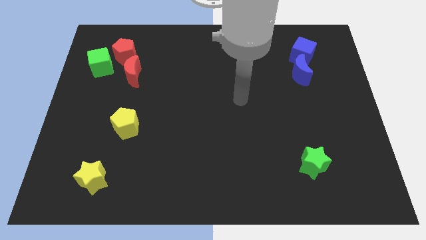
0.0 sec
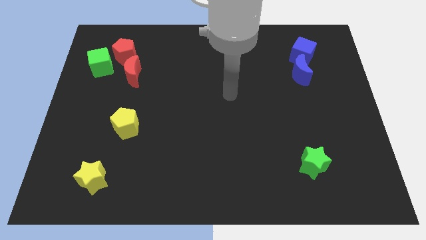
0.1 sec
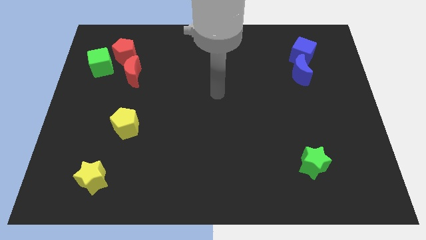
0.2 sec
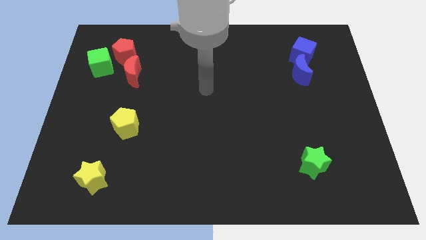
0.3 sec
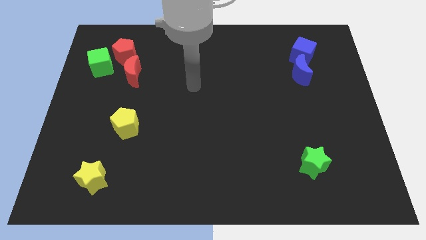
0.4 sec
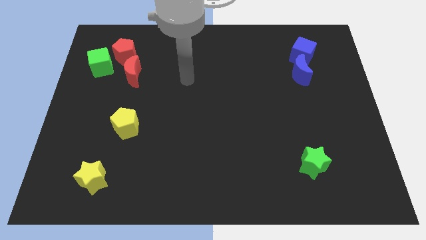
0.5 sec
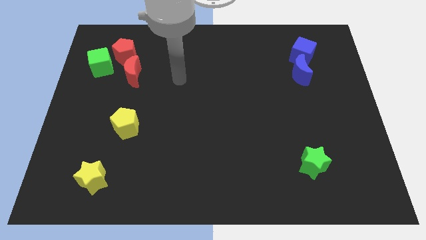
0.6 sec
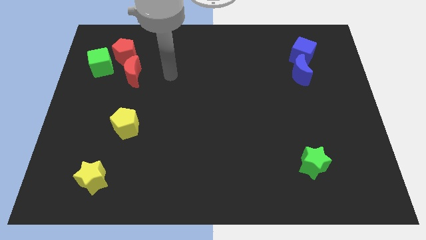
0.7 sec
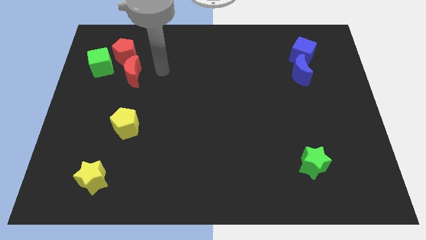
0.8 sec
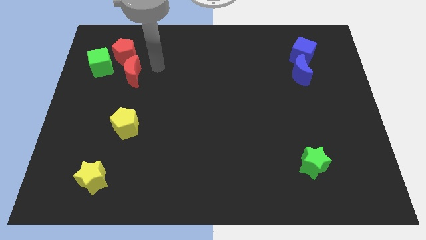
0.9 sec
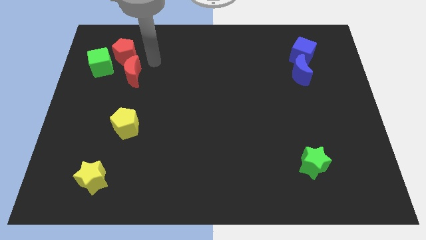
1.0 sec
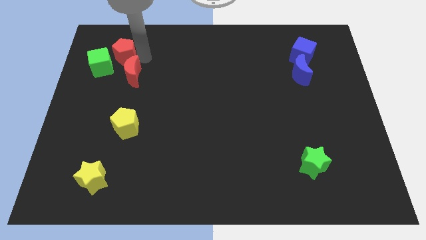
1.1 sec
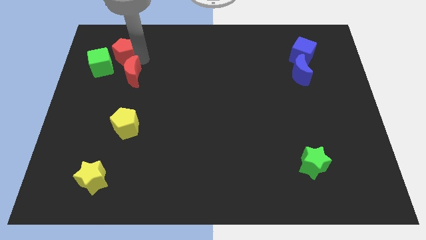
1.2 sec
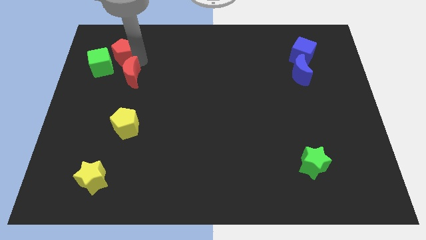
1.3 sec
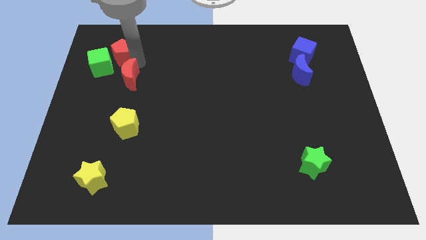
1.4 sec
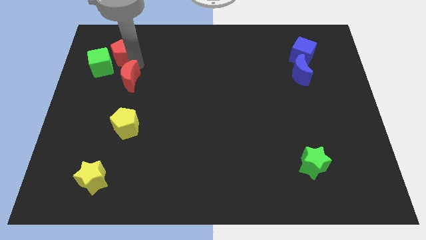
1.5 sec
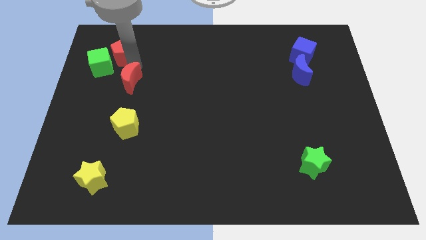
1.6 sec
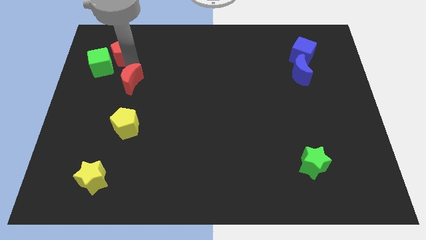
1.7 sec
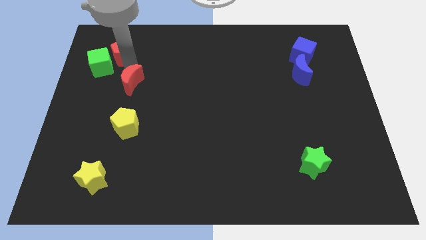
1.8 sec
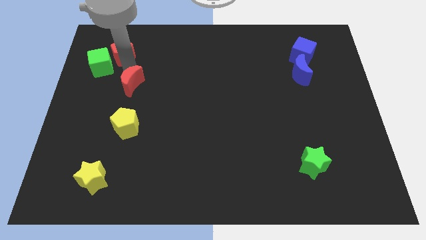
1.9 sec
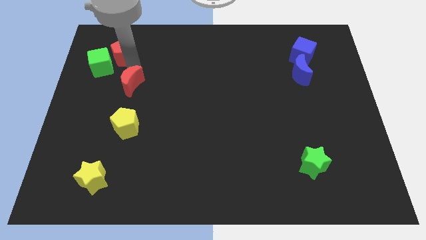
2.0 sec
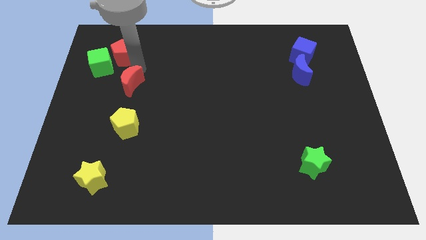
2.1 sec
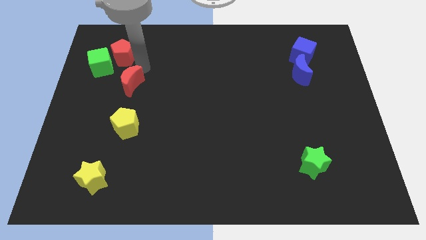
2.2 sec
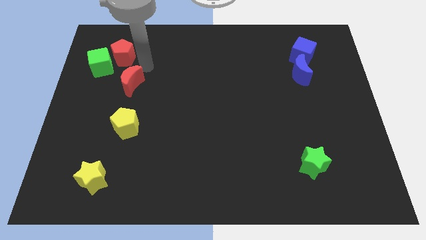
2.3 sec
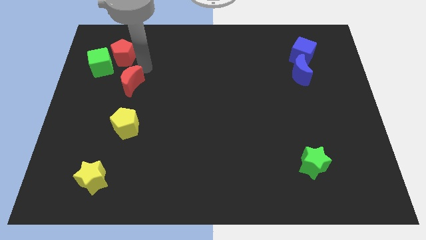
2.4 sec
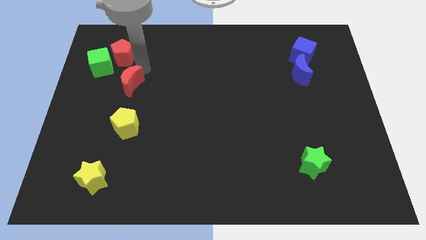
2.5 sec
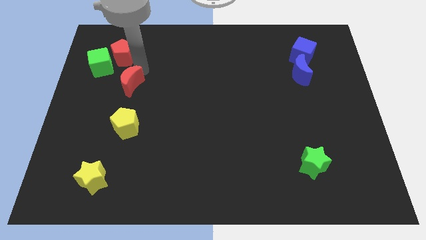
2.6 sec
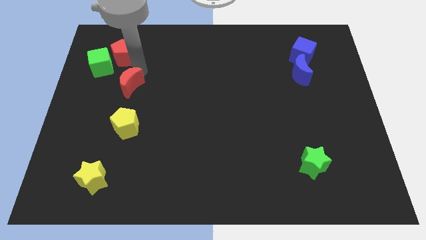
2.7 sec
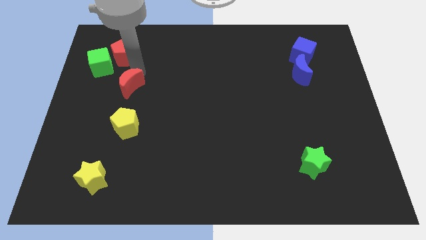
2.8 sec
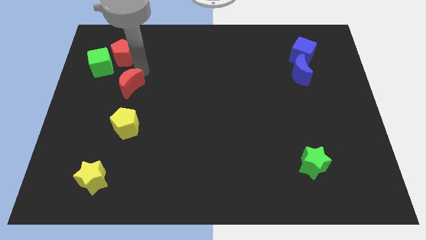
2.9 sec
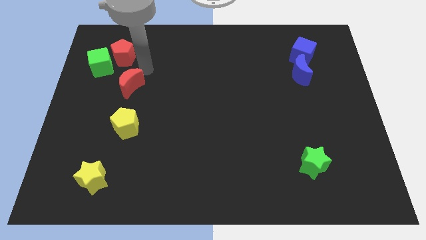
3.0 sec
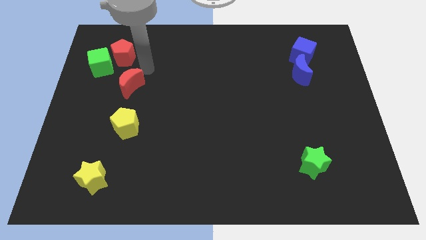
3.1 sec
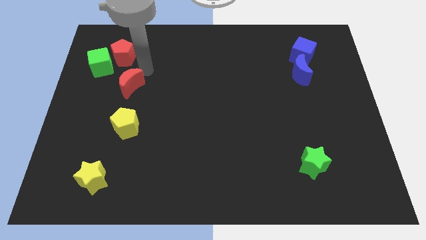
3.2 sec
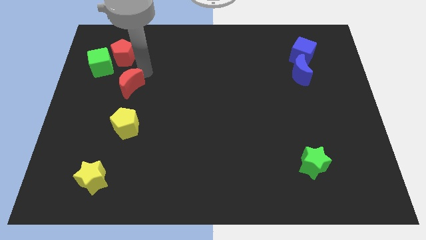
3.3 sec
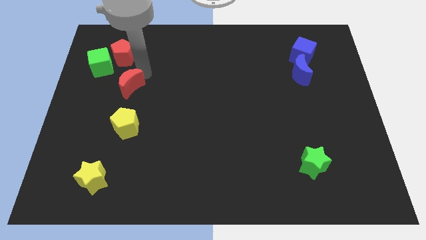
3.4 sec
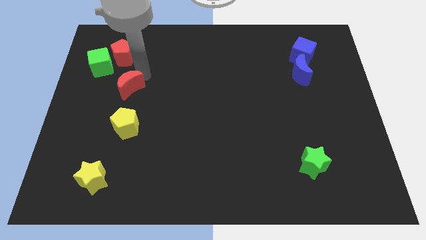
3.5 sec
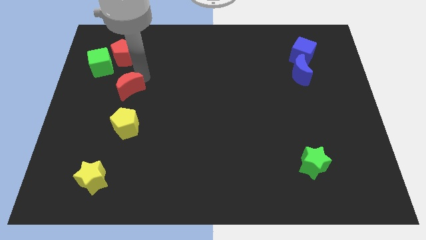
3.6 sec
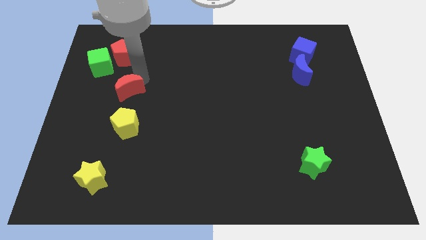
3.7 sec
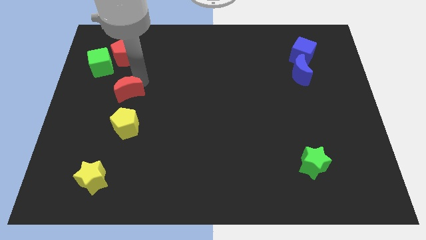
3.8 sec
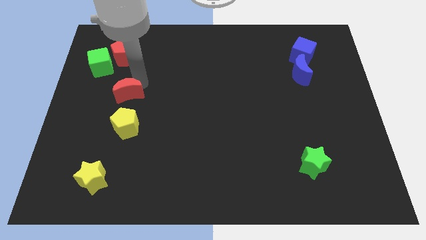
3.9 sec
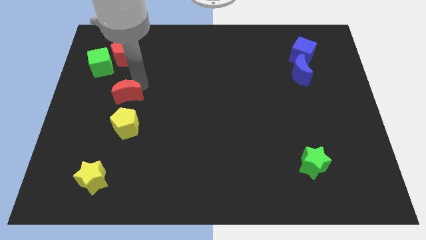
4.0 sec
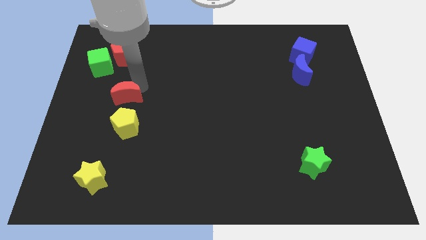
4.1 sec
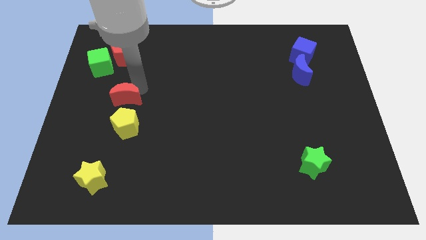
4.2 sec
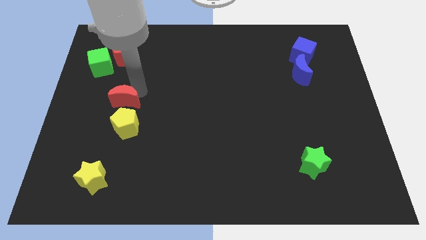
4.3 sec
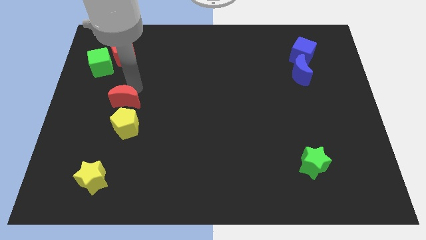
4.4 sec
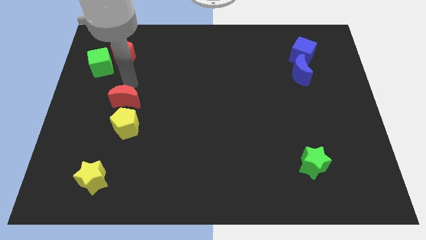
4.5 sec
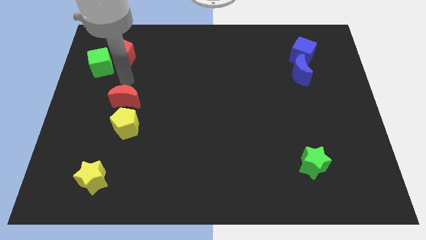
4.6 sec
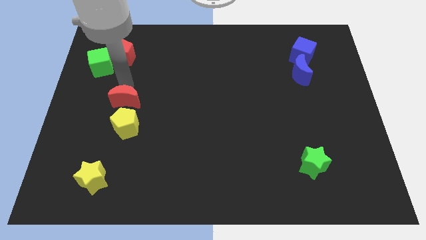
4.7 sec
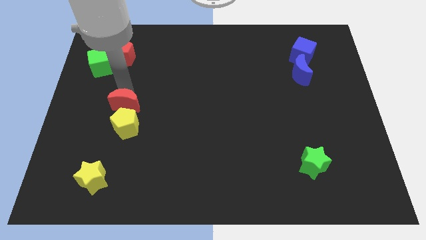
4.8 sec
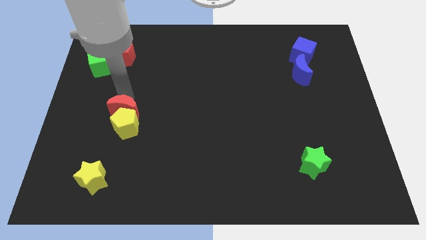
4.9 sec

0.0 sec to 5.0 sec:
move the red moon towards the yellow pentagon

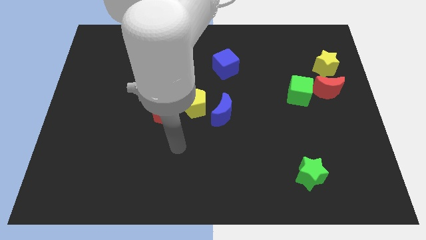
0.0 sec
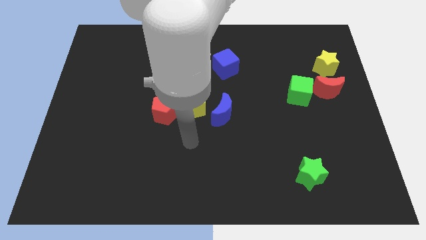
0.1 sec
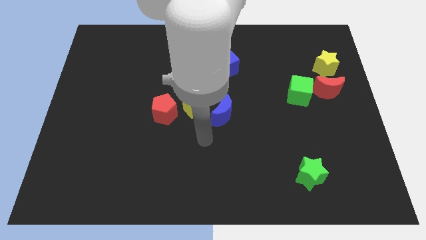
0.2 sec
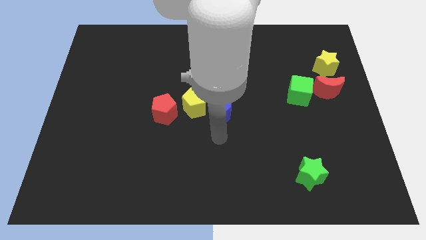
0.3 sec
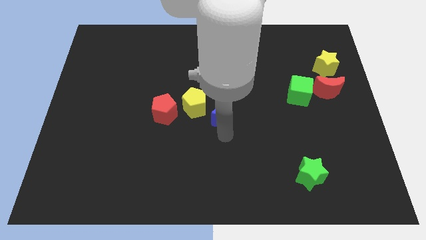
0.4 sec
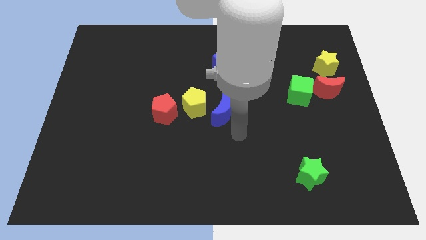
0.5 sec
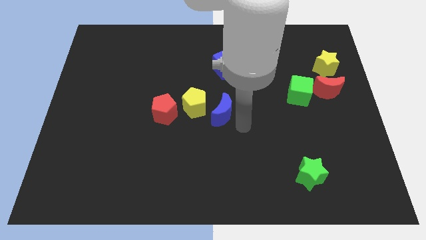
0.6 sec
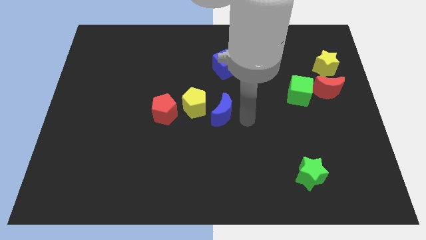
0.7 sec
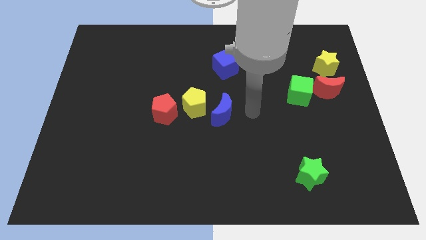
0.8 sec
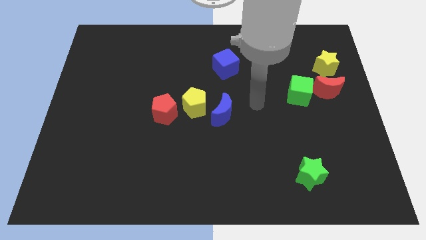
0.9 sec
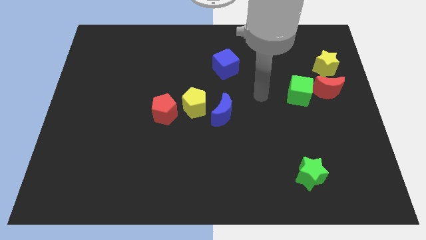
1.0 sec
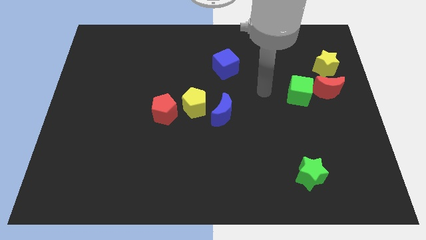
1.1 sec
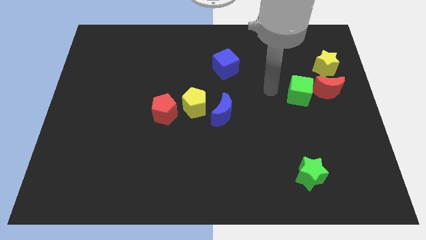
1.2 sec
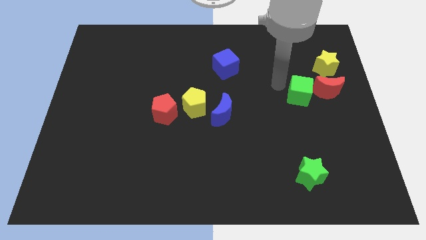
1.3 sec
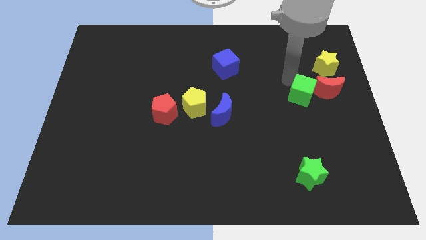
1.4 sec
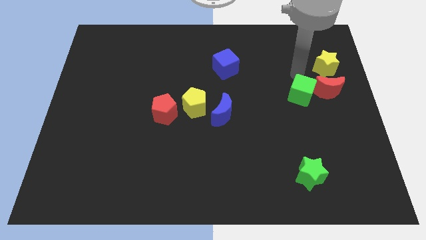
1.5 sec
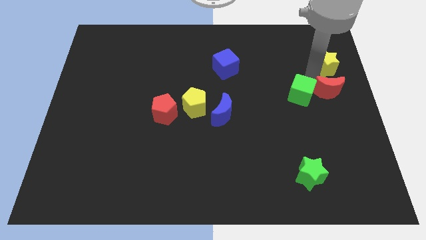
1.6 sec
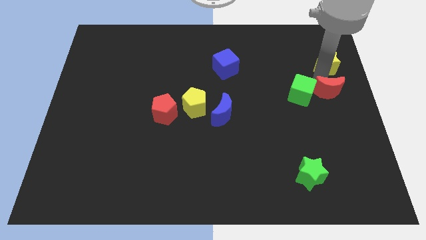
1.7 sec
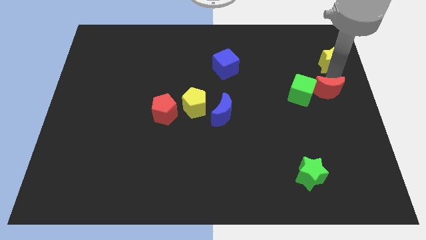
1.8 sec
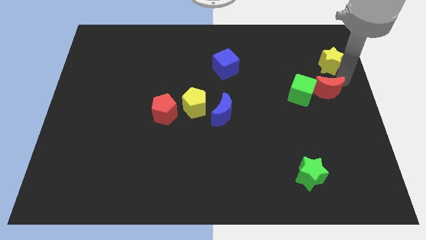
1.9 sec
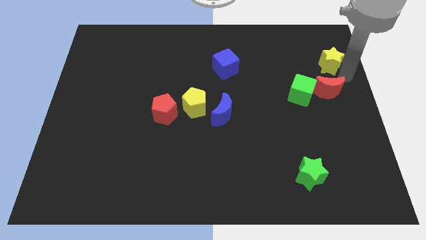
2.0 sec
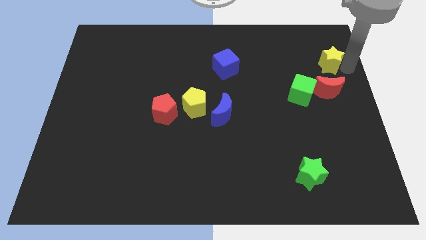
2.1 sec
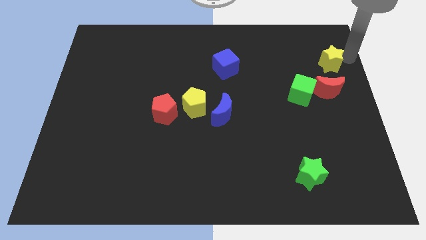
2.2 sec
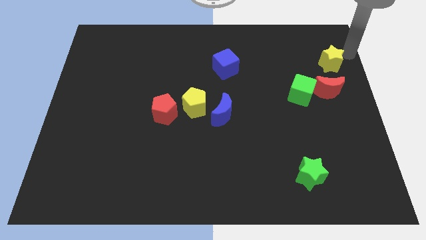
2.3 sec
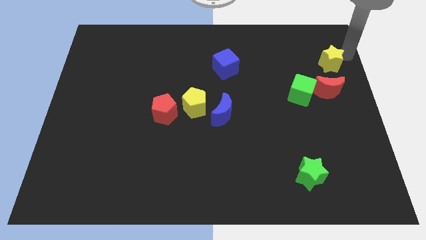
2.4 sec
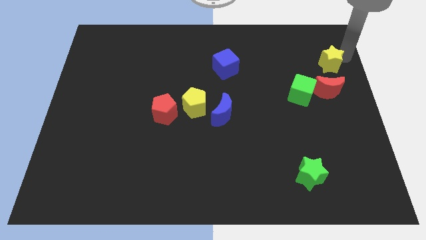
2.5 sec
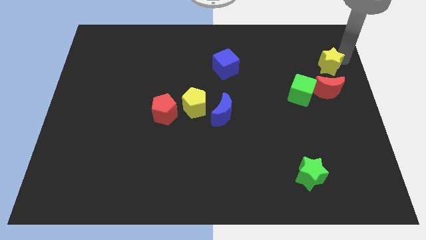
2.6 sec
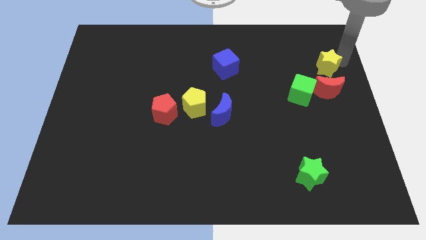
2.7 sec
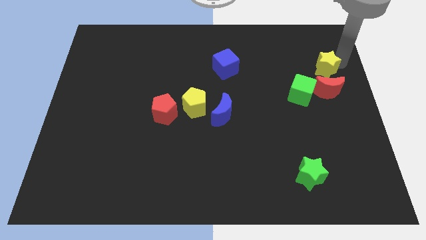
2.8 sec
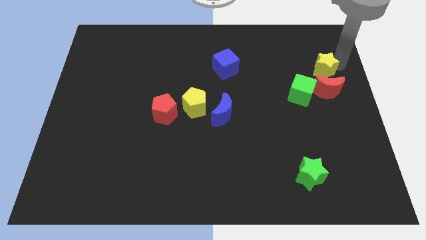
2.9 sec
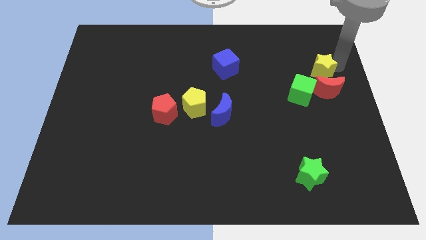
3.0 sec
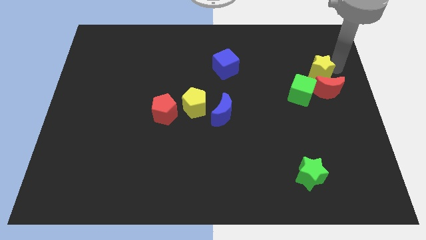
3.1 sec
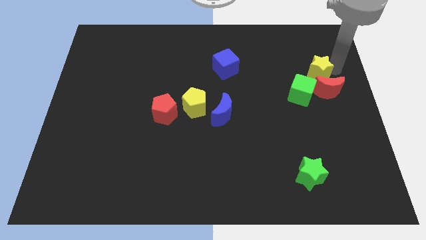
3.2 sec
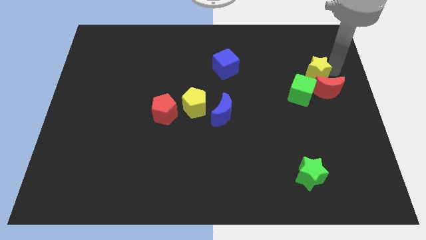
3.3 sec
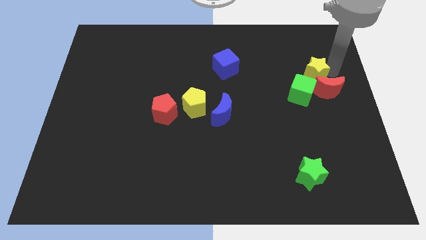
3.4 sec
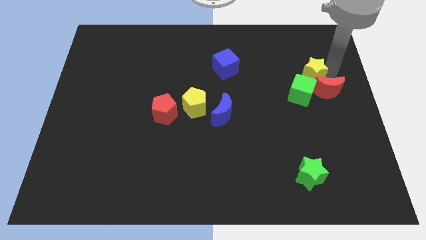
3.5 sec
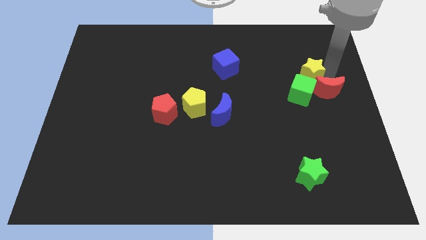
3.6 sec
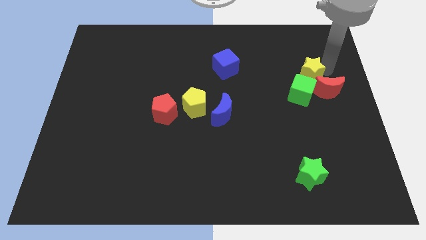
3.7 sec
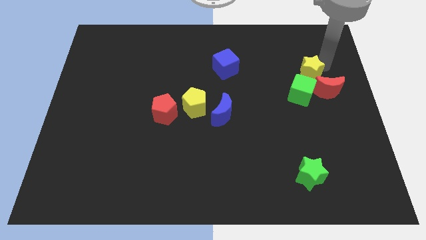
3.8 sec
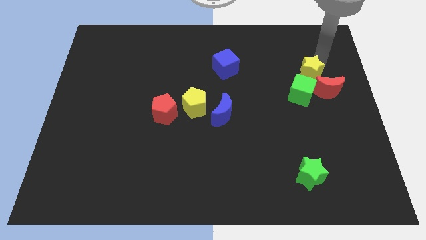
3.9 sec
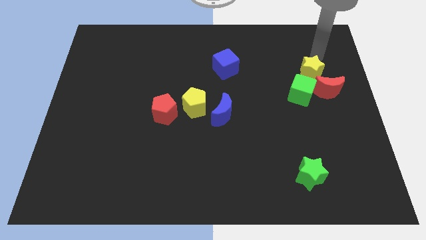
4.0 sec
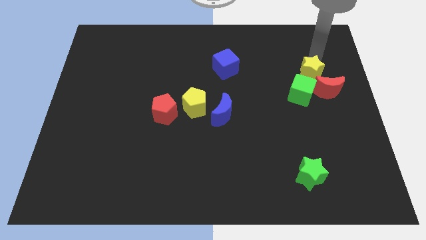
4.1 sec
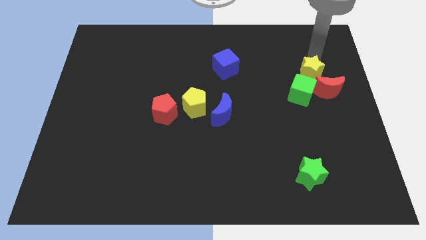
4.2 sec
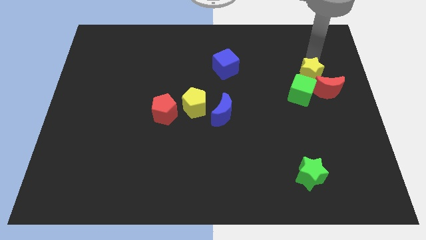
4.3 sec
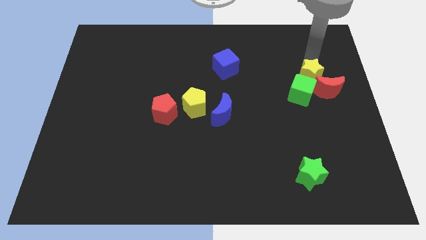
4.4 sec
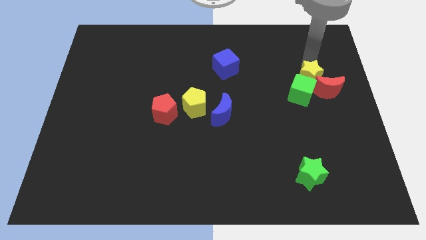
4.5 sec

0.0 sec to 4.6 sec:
slide the yellow star towards the green cube
